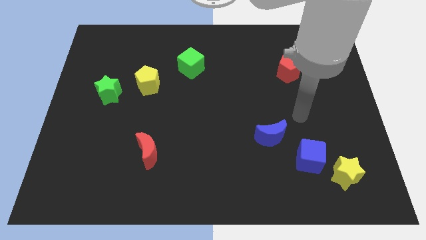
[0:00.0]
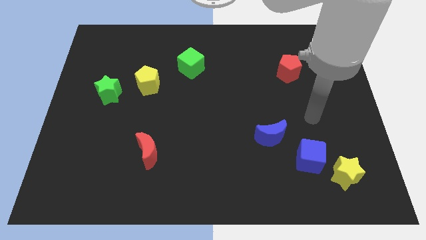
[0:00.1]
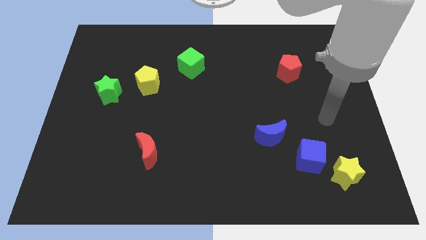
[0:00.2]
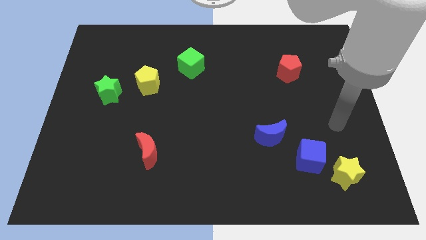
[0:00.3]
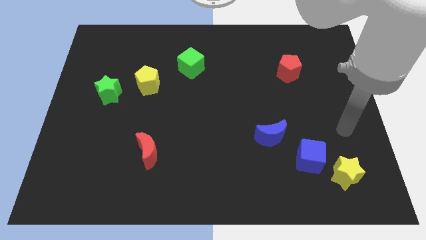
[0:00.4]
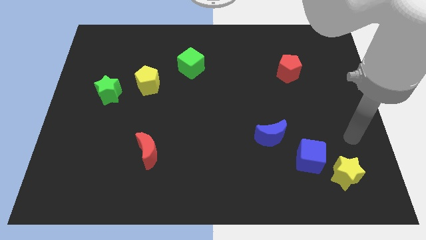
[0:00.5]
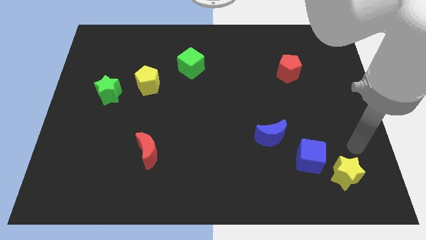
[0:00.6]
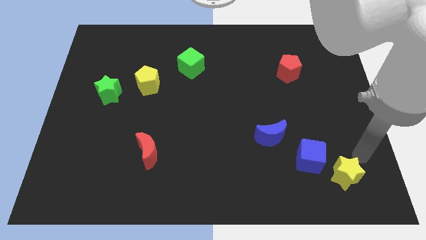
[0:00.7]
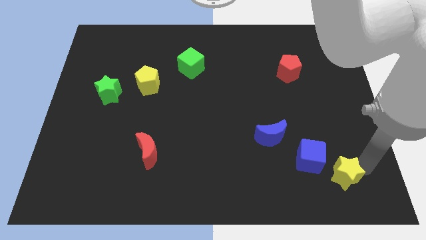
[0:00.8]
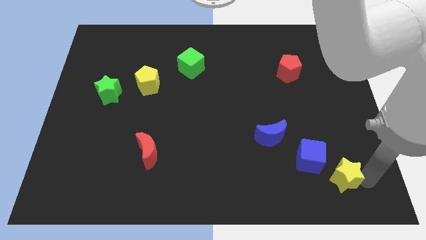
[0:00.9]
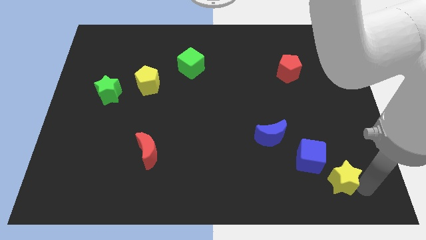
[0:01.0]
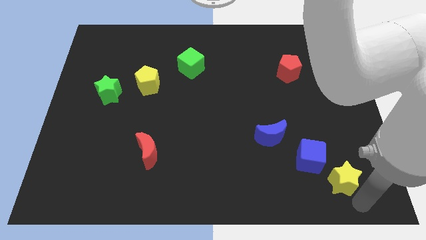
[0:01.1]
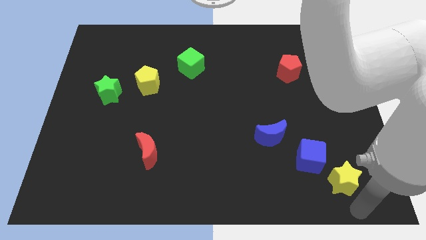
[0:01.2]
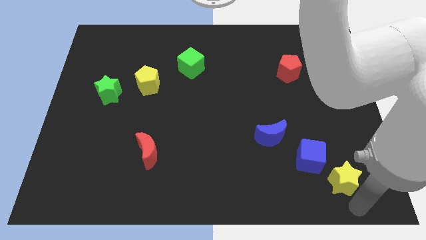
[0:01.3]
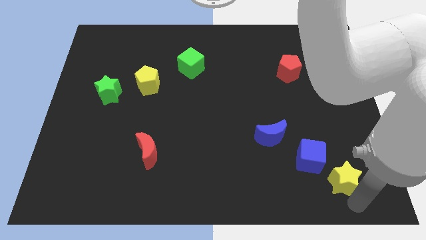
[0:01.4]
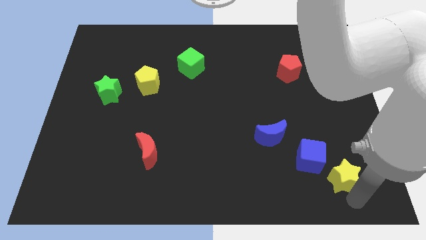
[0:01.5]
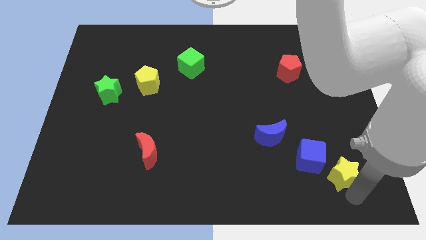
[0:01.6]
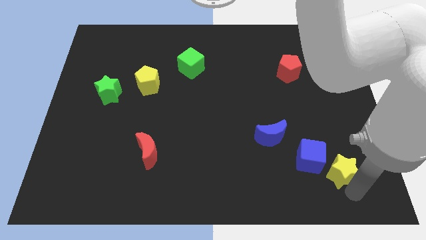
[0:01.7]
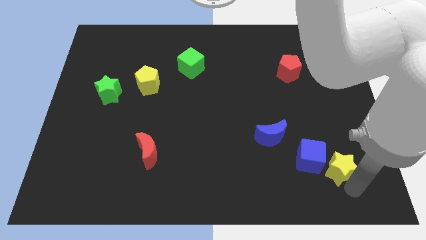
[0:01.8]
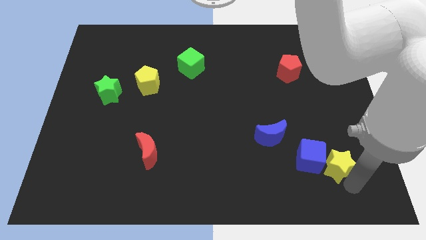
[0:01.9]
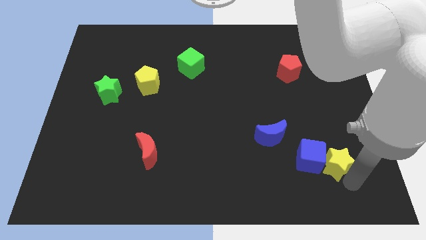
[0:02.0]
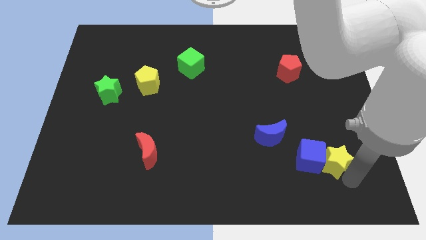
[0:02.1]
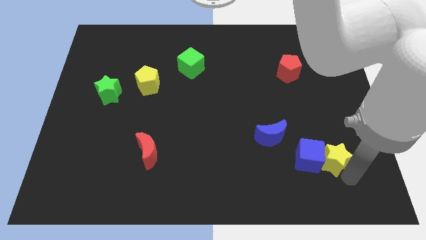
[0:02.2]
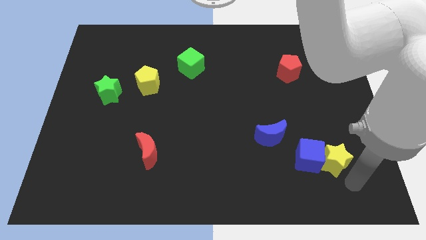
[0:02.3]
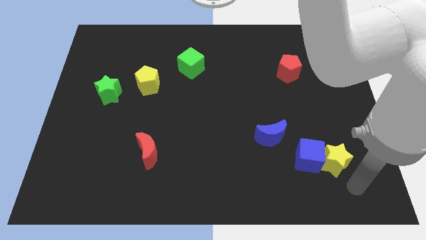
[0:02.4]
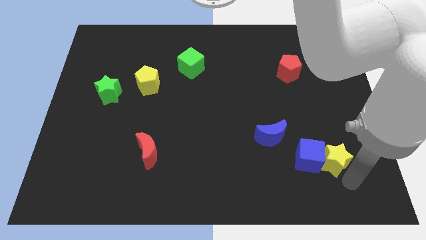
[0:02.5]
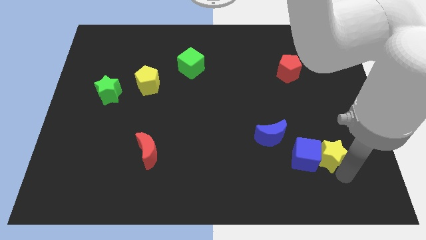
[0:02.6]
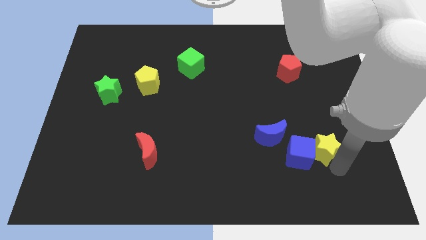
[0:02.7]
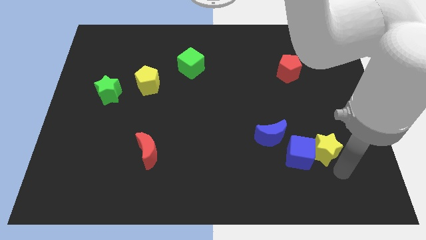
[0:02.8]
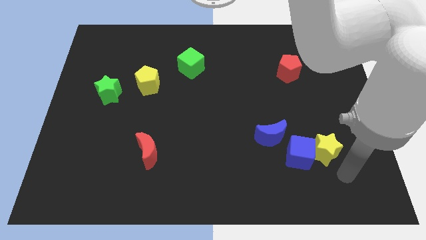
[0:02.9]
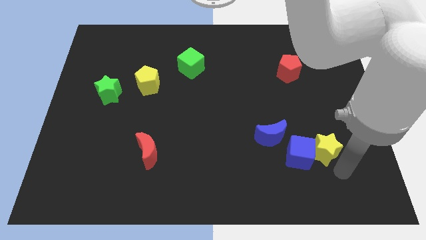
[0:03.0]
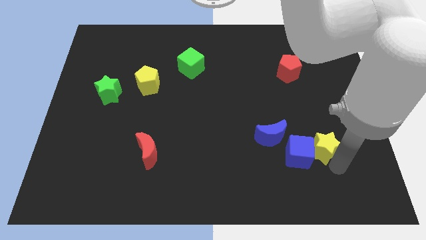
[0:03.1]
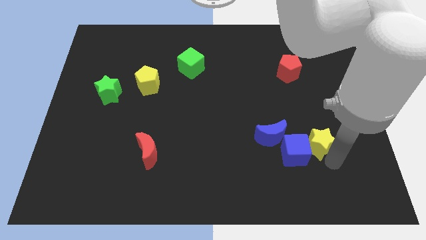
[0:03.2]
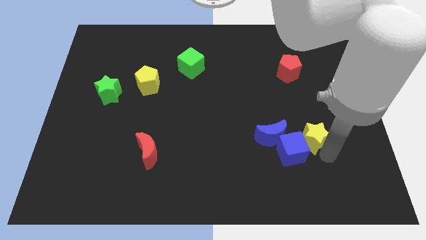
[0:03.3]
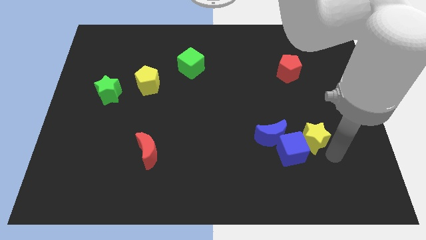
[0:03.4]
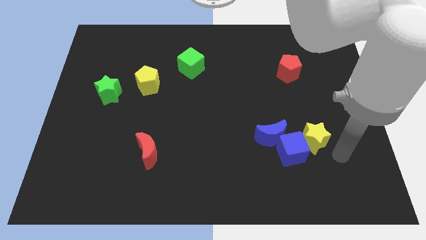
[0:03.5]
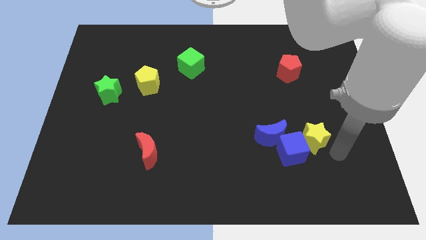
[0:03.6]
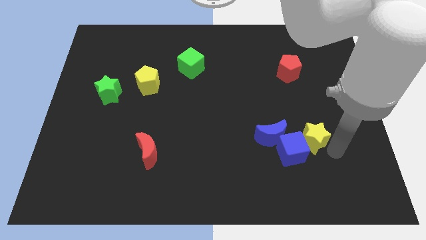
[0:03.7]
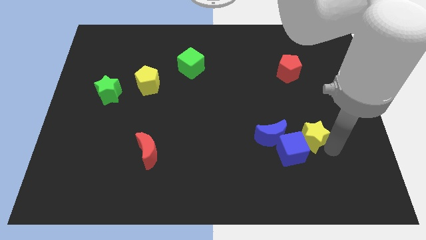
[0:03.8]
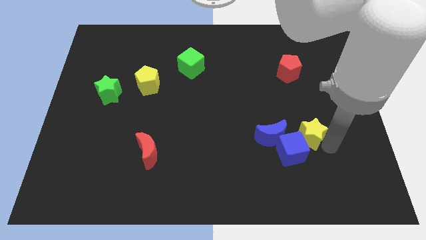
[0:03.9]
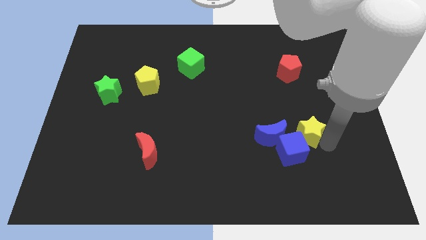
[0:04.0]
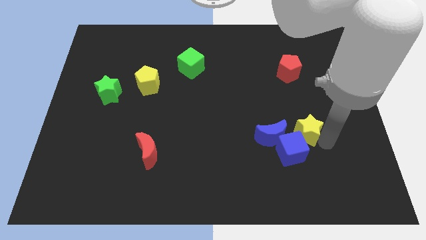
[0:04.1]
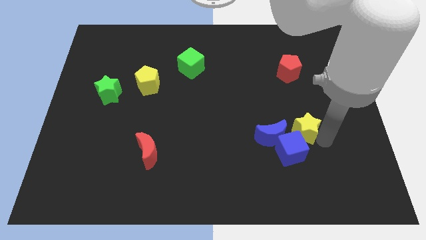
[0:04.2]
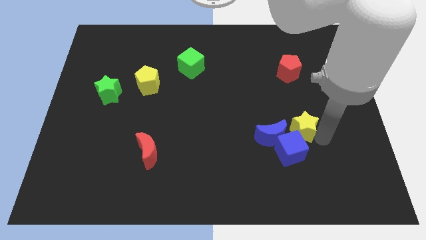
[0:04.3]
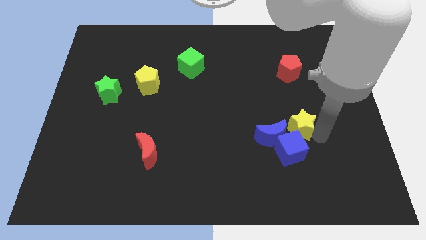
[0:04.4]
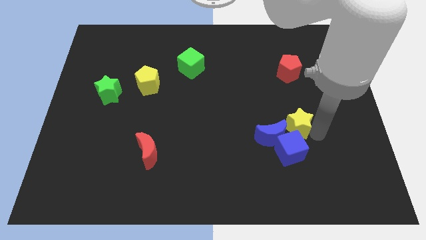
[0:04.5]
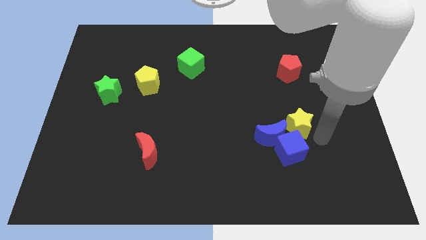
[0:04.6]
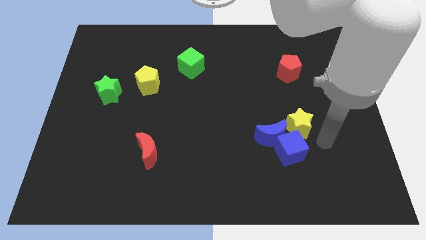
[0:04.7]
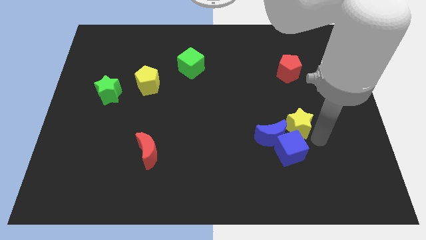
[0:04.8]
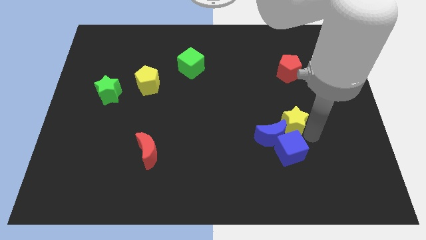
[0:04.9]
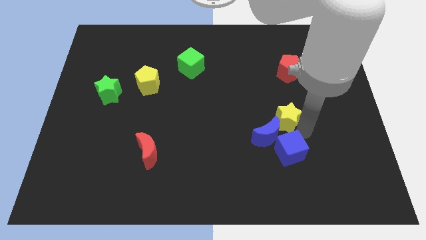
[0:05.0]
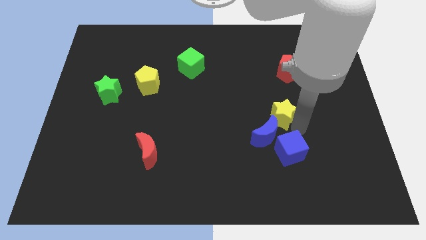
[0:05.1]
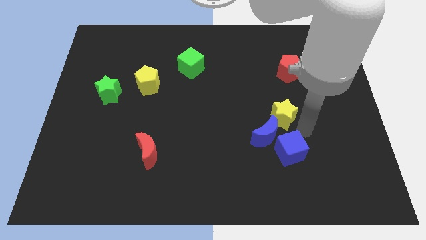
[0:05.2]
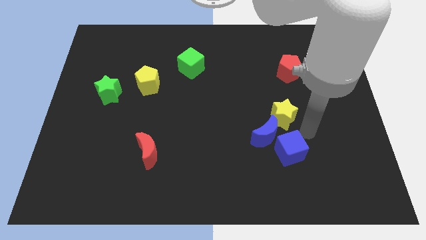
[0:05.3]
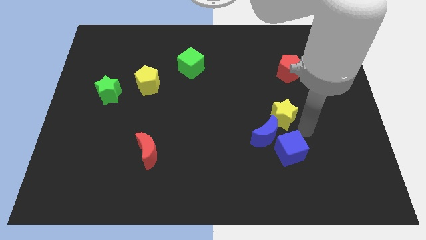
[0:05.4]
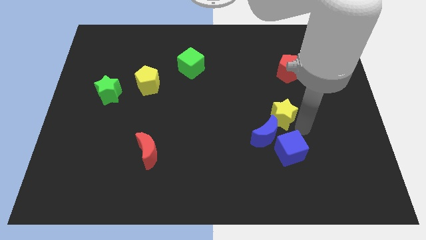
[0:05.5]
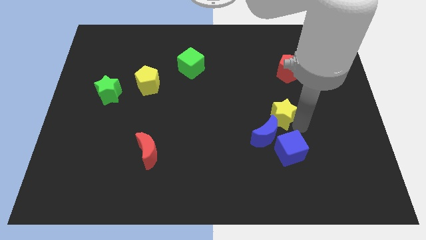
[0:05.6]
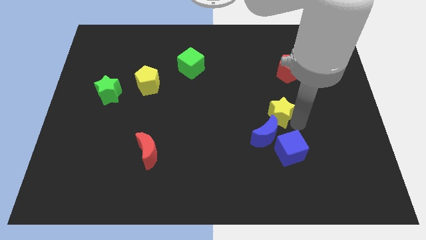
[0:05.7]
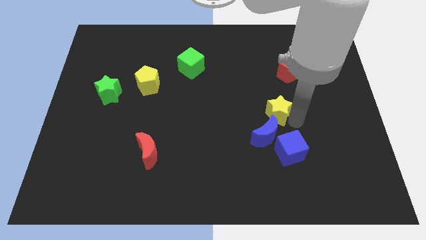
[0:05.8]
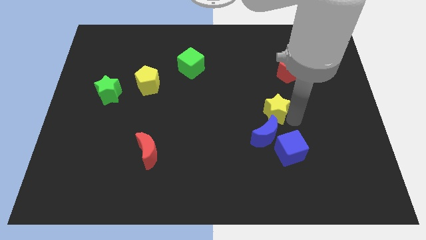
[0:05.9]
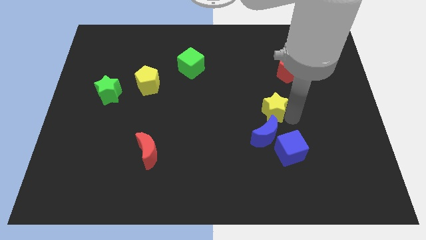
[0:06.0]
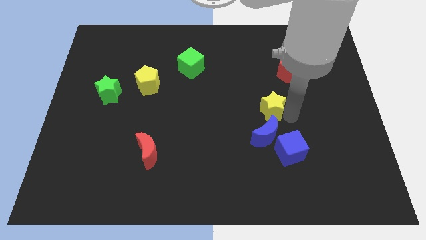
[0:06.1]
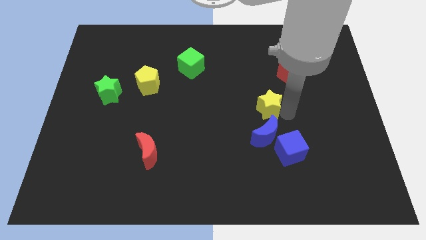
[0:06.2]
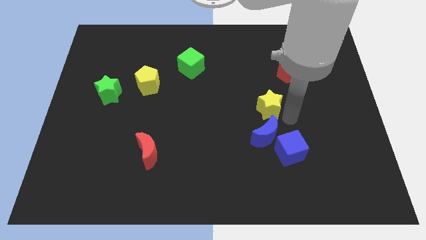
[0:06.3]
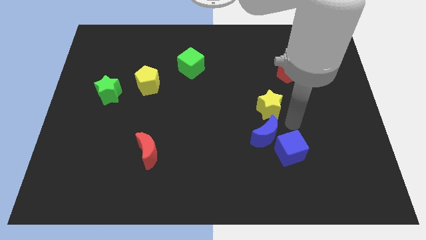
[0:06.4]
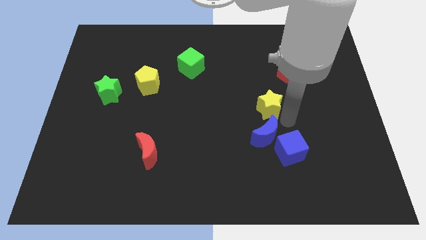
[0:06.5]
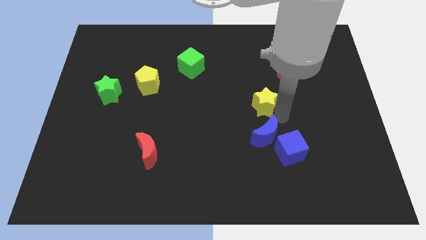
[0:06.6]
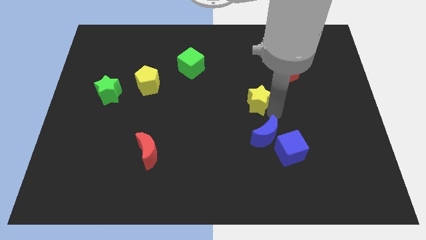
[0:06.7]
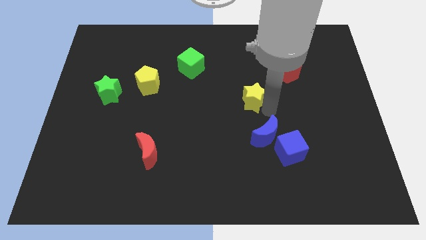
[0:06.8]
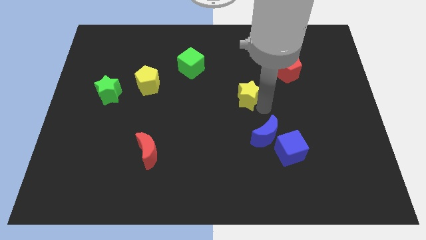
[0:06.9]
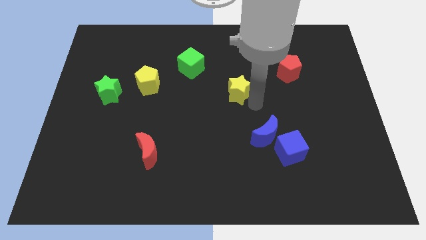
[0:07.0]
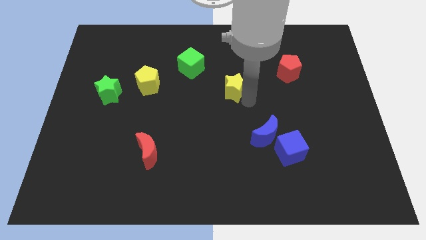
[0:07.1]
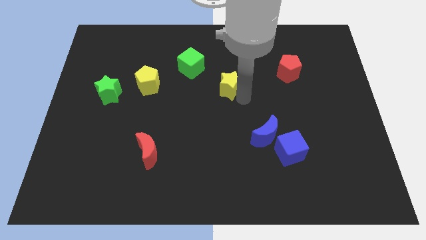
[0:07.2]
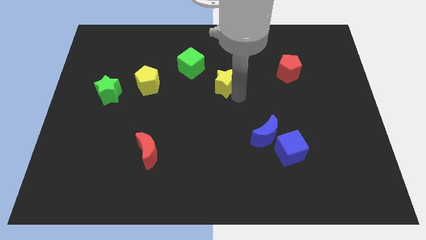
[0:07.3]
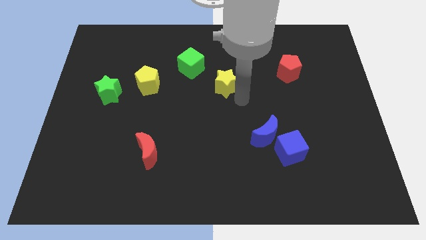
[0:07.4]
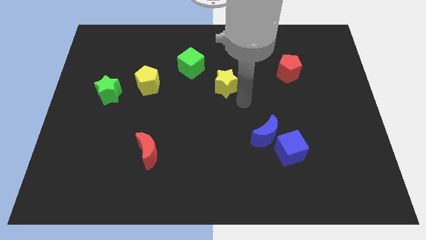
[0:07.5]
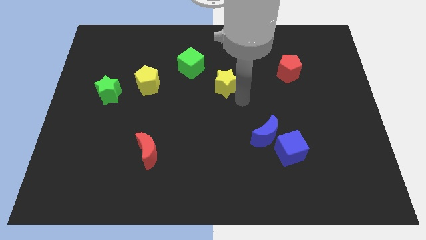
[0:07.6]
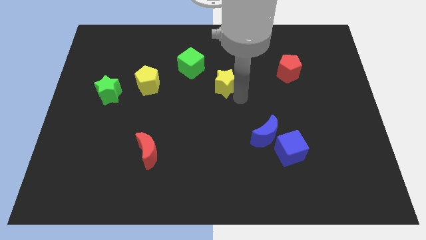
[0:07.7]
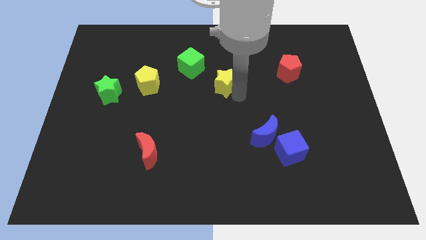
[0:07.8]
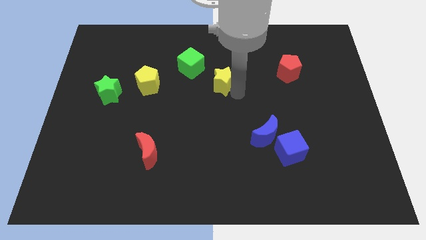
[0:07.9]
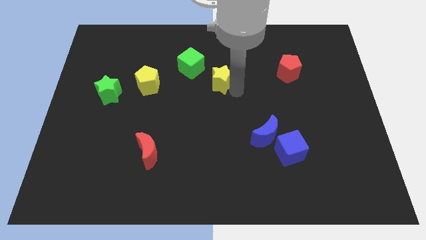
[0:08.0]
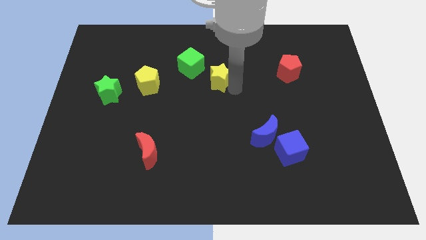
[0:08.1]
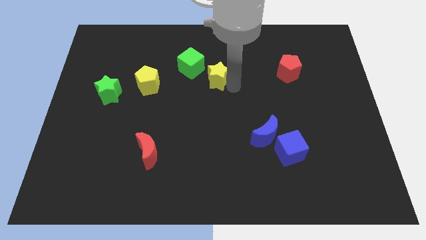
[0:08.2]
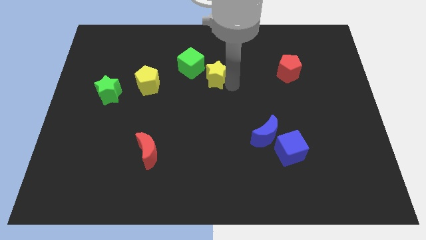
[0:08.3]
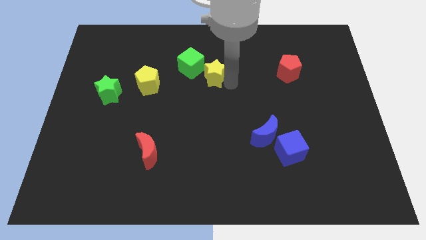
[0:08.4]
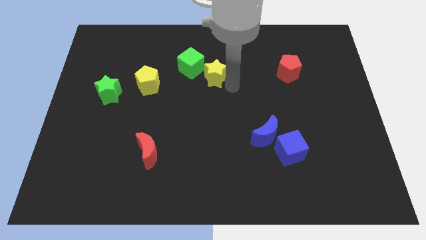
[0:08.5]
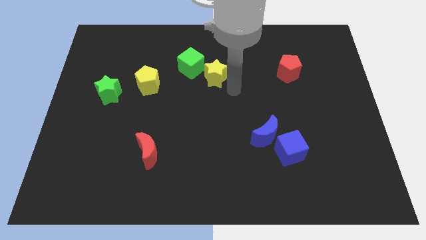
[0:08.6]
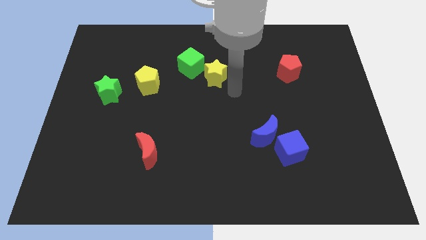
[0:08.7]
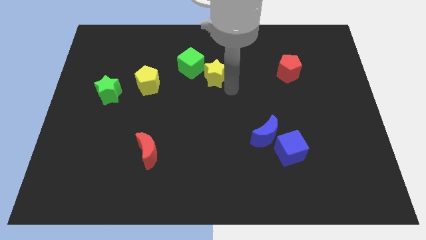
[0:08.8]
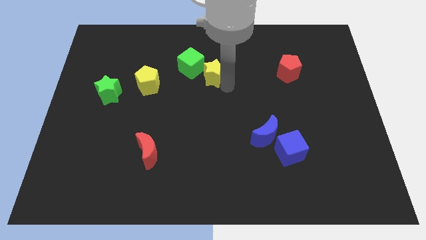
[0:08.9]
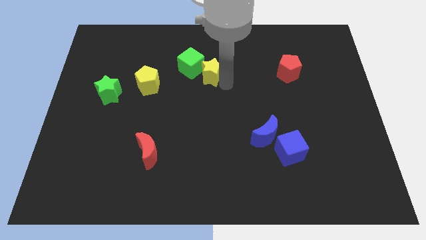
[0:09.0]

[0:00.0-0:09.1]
push the yellow star next to the green cube
